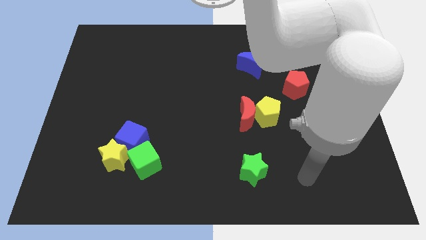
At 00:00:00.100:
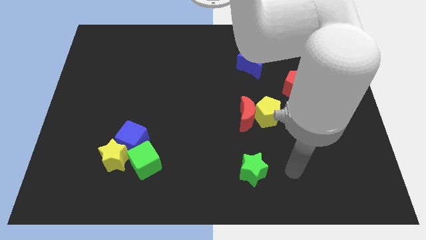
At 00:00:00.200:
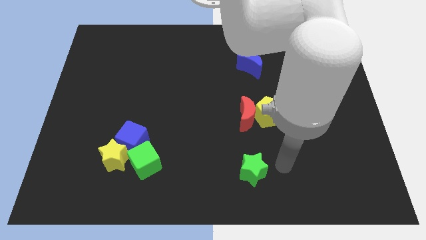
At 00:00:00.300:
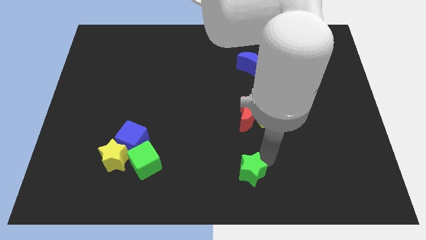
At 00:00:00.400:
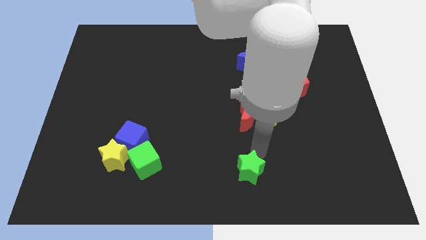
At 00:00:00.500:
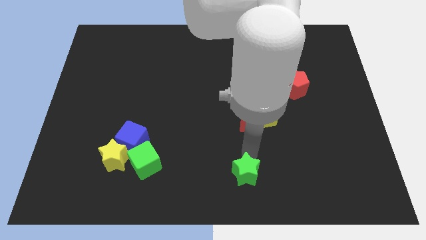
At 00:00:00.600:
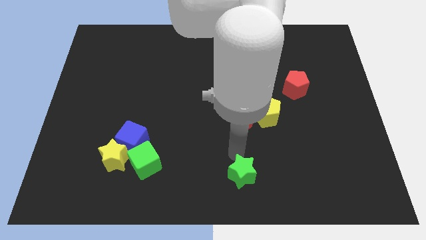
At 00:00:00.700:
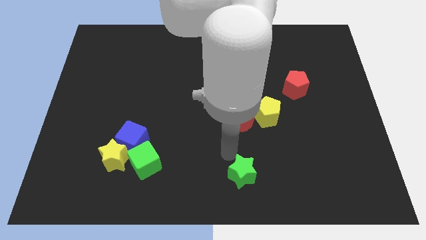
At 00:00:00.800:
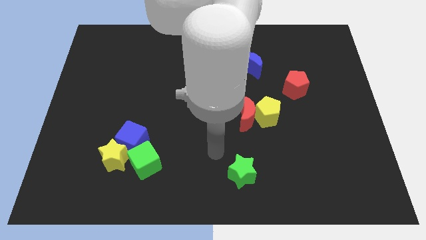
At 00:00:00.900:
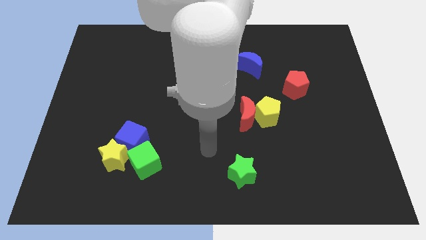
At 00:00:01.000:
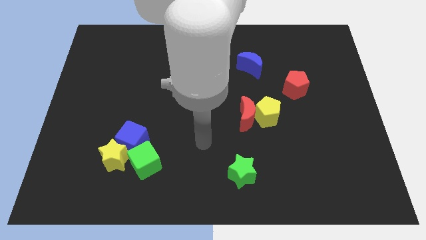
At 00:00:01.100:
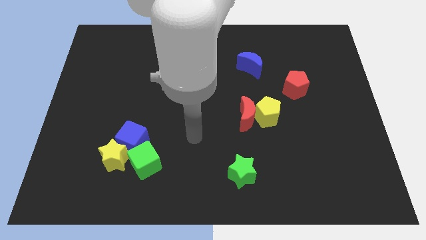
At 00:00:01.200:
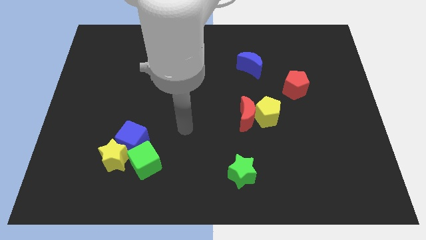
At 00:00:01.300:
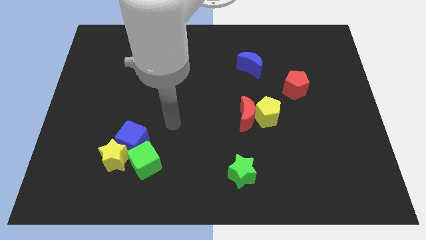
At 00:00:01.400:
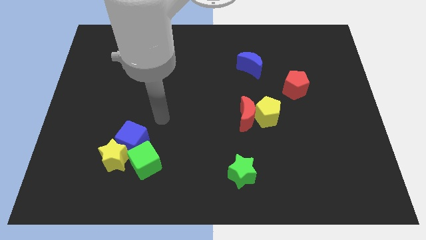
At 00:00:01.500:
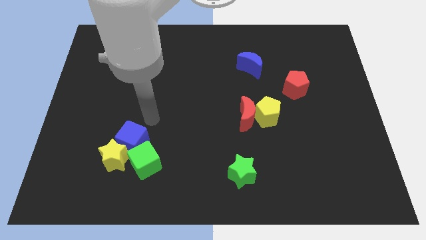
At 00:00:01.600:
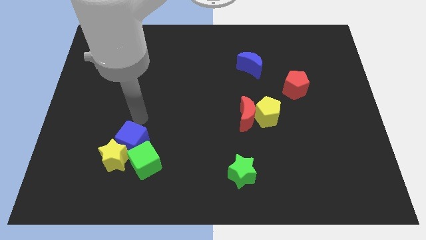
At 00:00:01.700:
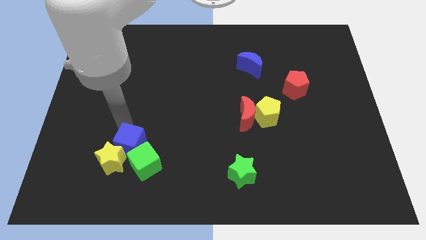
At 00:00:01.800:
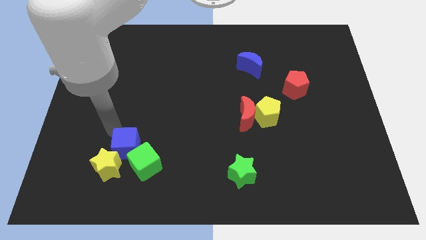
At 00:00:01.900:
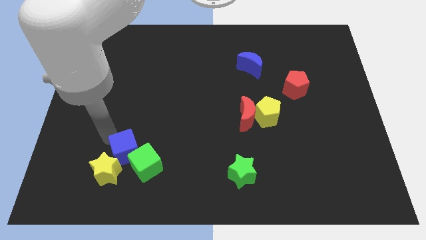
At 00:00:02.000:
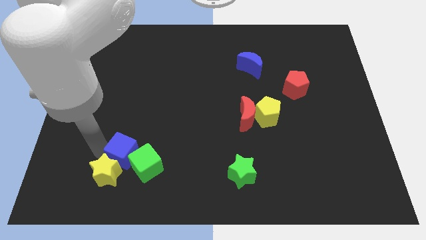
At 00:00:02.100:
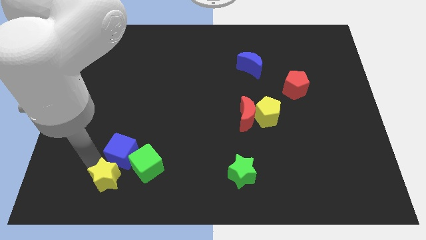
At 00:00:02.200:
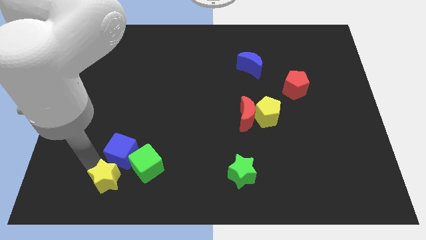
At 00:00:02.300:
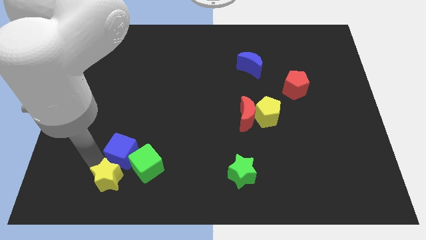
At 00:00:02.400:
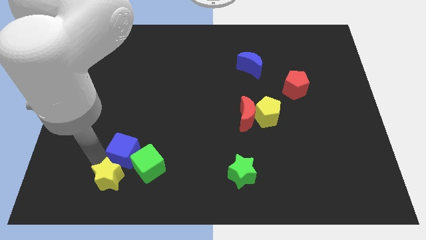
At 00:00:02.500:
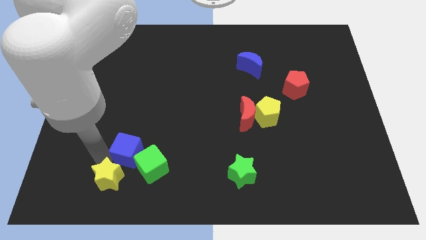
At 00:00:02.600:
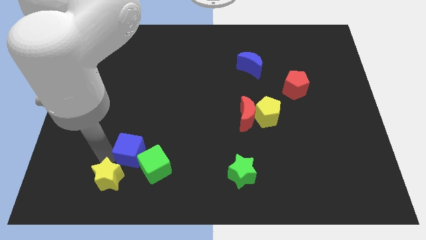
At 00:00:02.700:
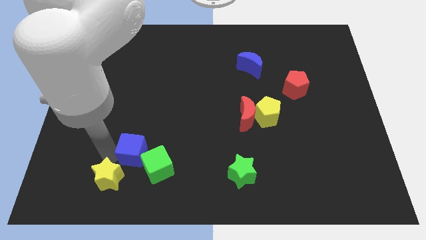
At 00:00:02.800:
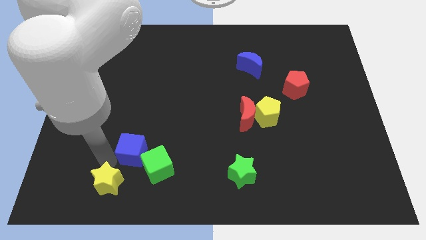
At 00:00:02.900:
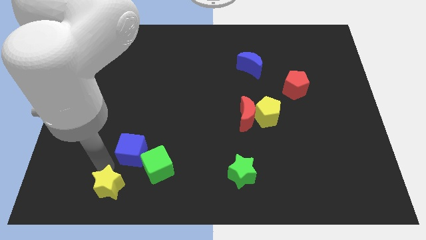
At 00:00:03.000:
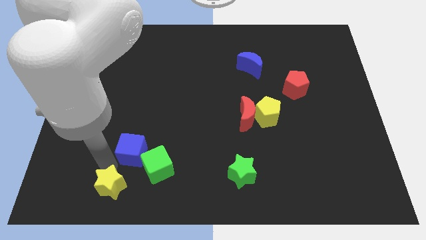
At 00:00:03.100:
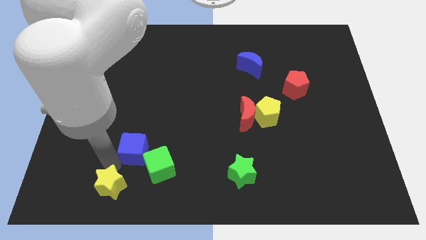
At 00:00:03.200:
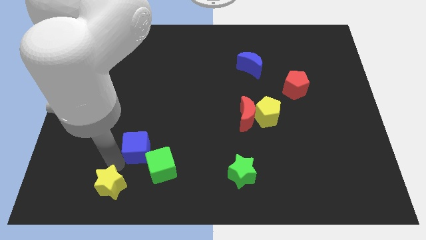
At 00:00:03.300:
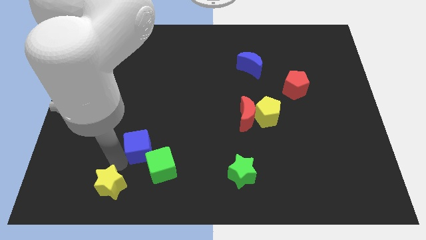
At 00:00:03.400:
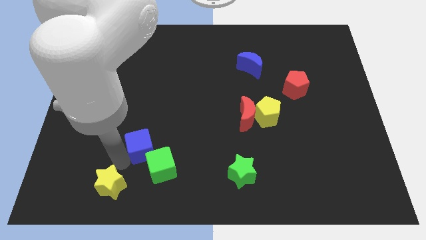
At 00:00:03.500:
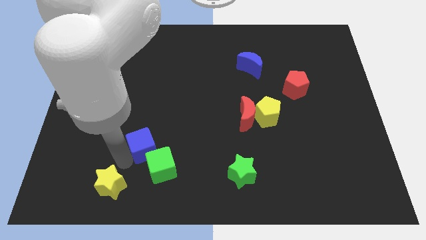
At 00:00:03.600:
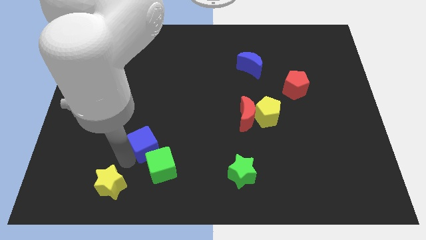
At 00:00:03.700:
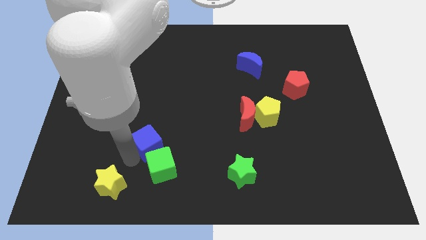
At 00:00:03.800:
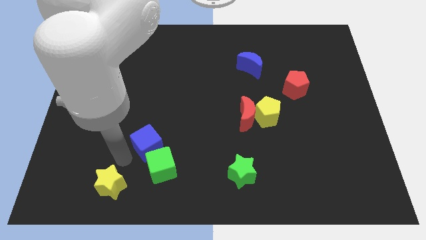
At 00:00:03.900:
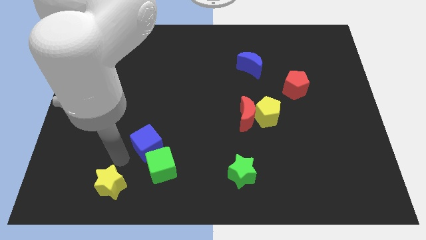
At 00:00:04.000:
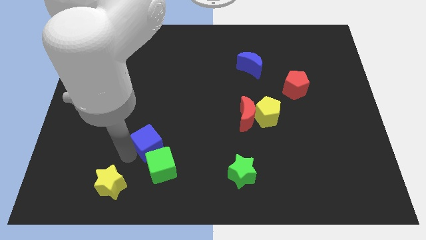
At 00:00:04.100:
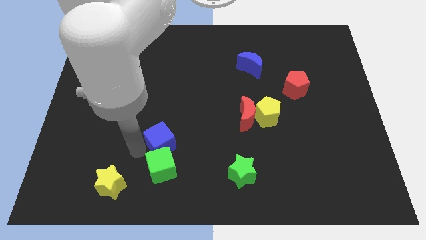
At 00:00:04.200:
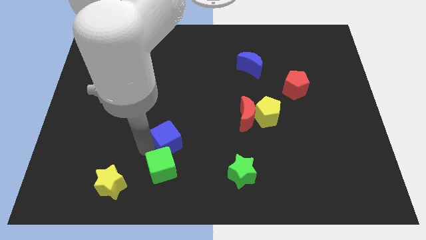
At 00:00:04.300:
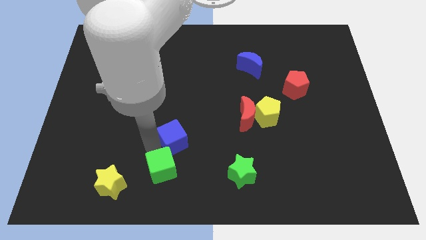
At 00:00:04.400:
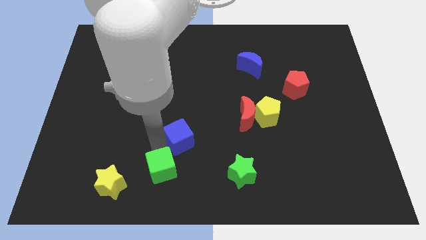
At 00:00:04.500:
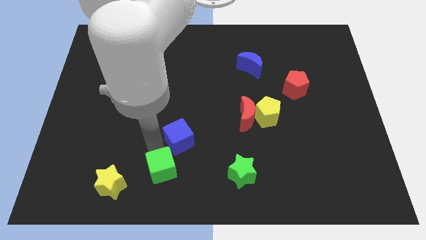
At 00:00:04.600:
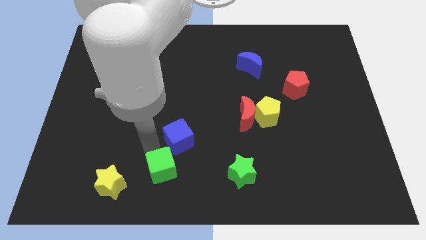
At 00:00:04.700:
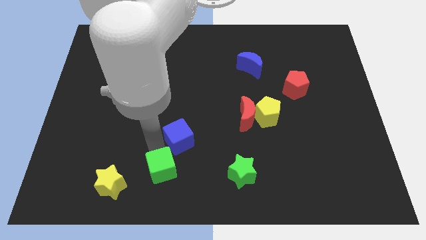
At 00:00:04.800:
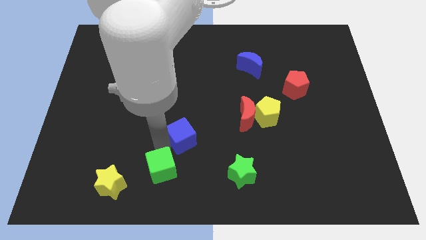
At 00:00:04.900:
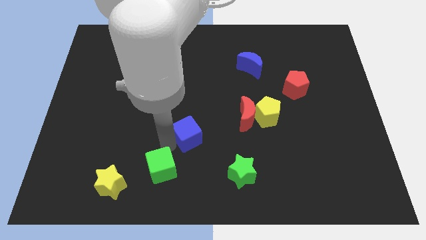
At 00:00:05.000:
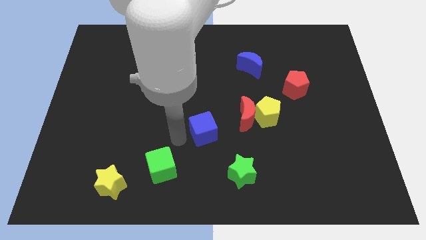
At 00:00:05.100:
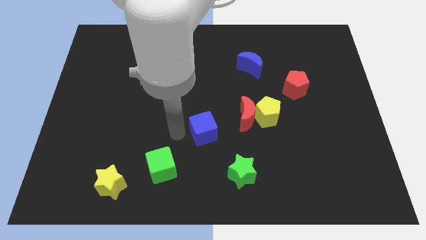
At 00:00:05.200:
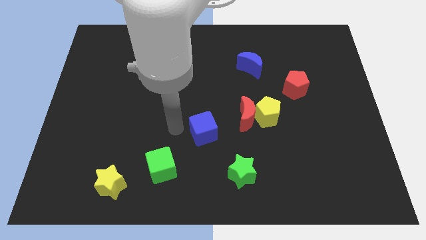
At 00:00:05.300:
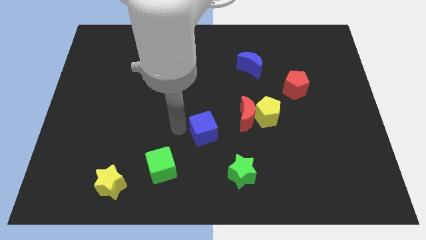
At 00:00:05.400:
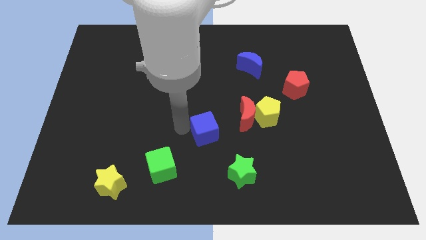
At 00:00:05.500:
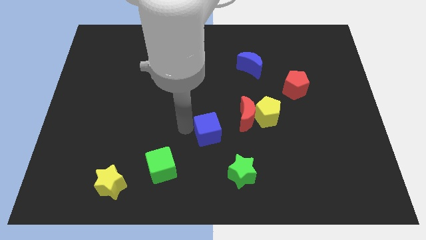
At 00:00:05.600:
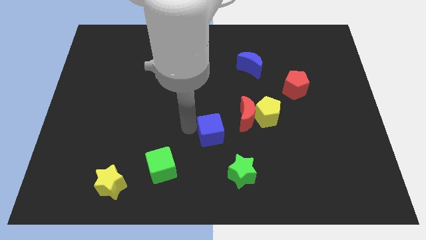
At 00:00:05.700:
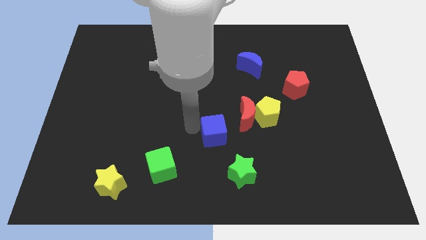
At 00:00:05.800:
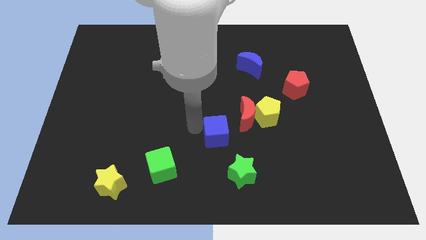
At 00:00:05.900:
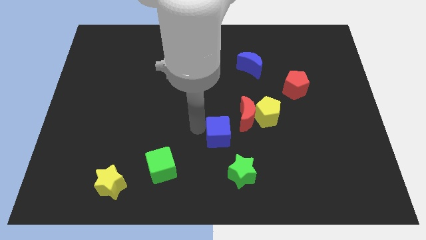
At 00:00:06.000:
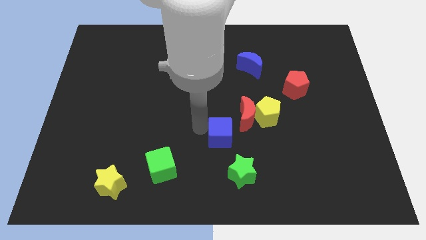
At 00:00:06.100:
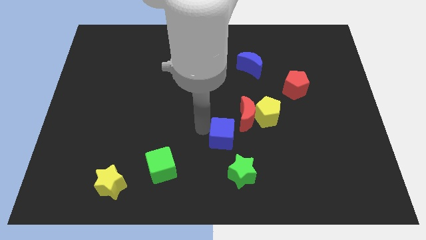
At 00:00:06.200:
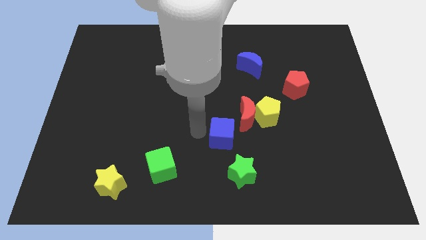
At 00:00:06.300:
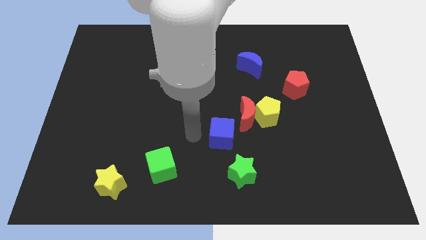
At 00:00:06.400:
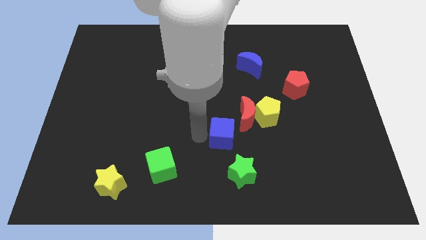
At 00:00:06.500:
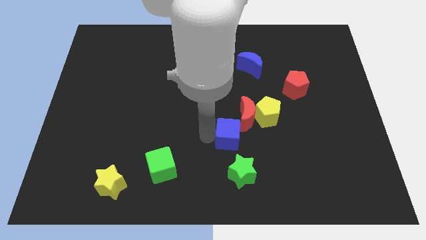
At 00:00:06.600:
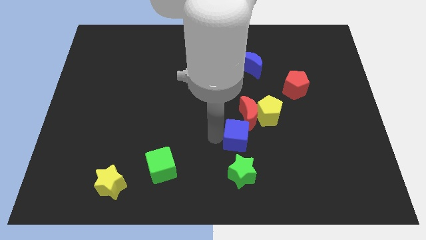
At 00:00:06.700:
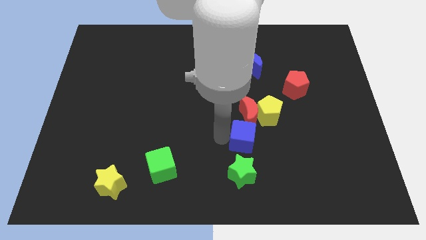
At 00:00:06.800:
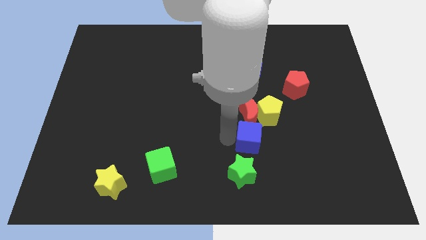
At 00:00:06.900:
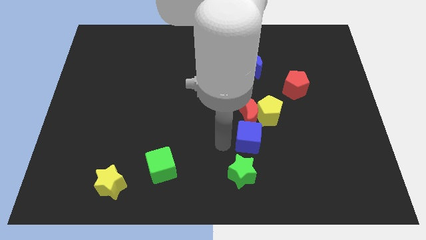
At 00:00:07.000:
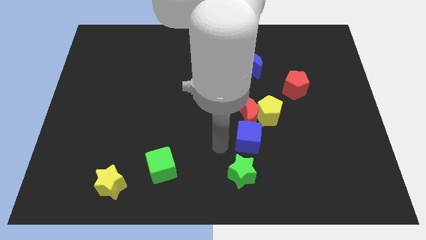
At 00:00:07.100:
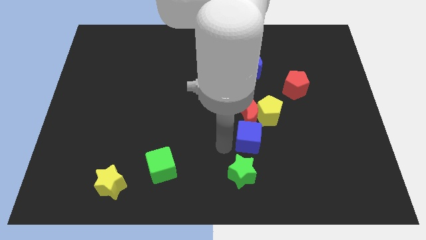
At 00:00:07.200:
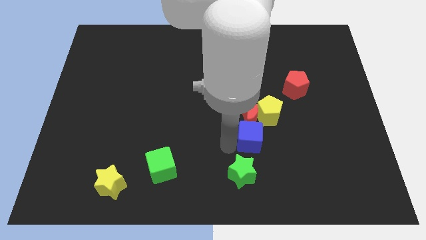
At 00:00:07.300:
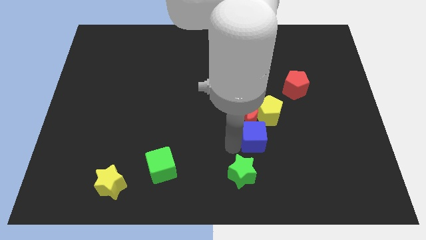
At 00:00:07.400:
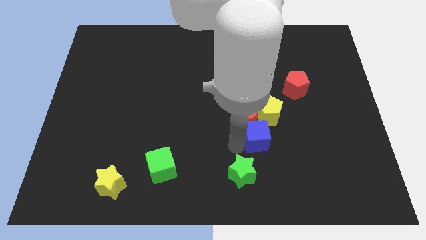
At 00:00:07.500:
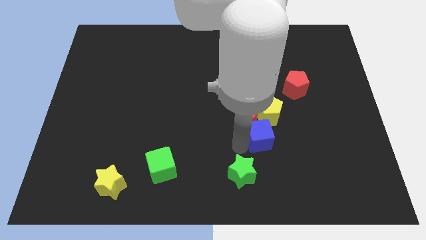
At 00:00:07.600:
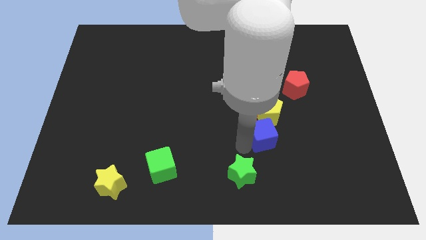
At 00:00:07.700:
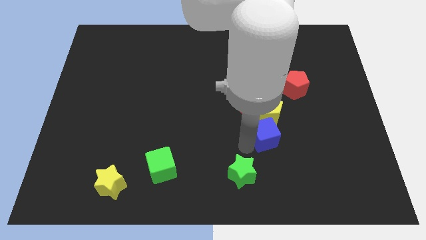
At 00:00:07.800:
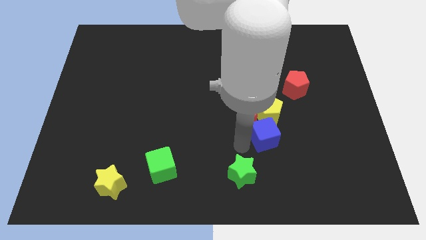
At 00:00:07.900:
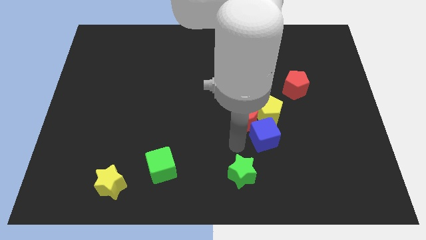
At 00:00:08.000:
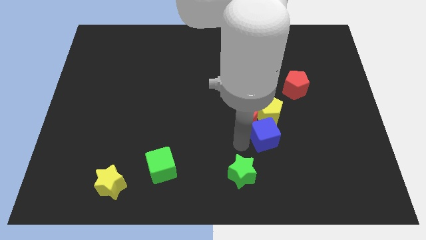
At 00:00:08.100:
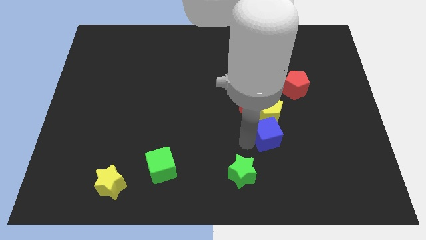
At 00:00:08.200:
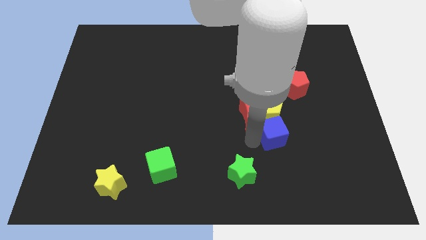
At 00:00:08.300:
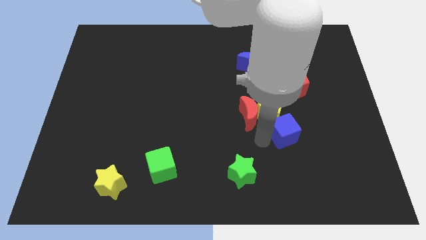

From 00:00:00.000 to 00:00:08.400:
slide the blue cube just right of the red moon
